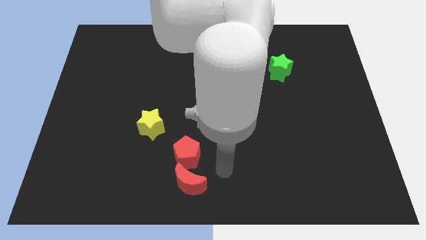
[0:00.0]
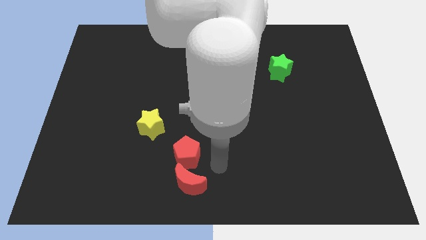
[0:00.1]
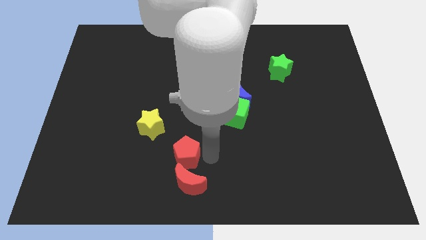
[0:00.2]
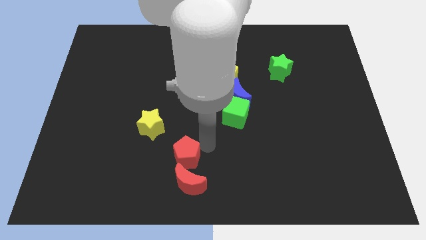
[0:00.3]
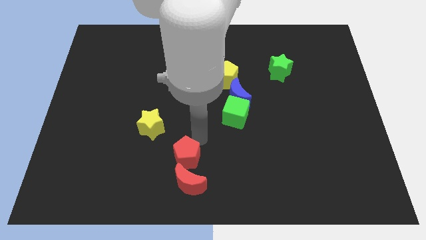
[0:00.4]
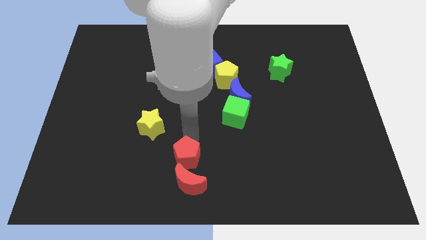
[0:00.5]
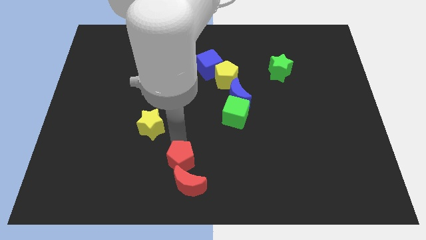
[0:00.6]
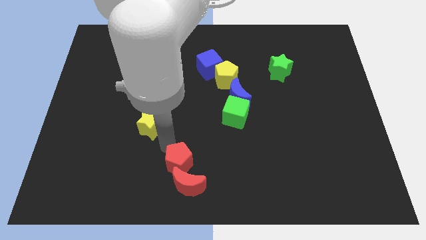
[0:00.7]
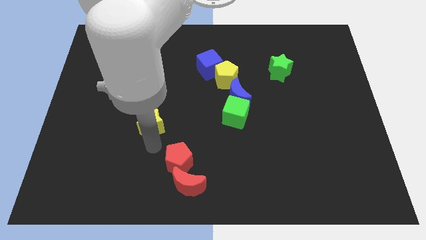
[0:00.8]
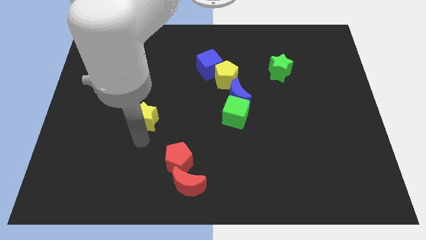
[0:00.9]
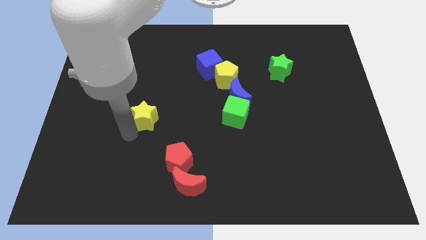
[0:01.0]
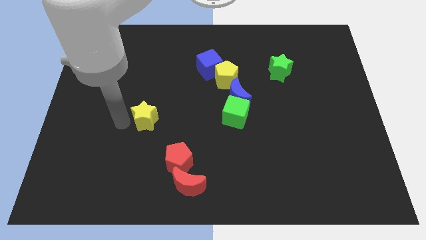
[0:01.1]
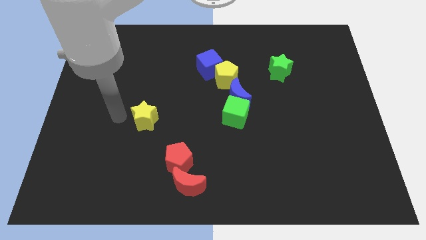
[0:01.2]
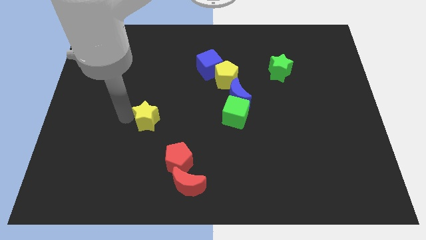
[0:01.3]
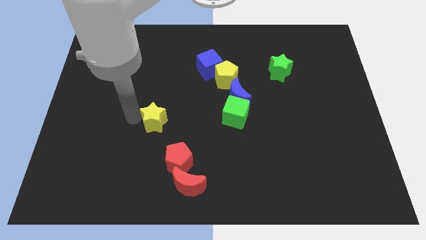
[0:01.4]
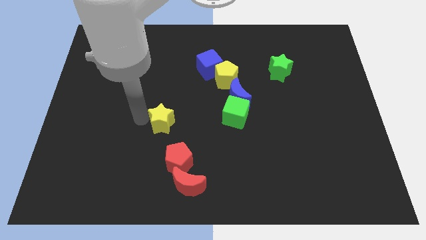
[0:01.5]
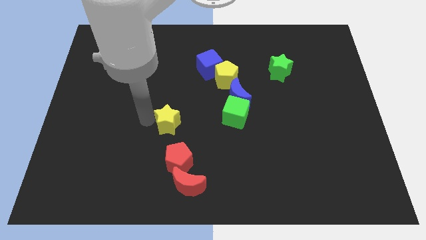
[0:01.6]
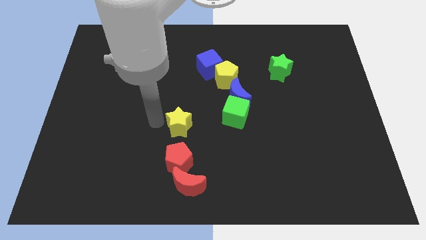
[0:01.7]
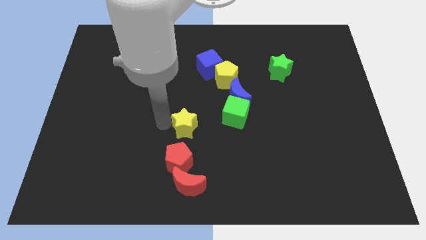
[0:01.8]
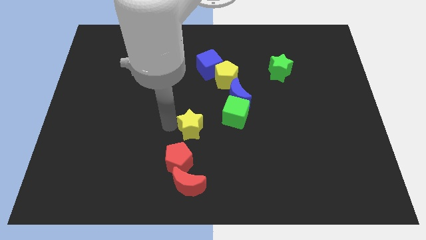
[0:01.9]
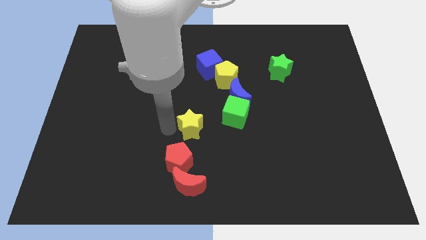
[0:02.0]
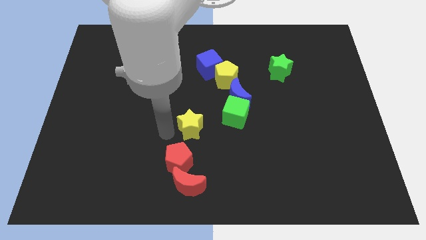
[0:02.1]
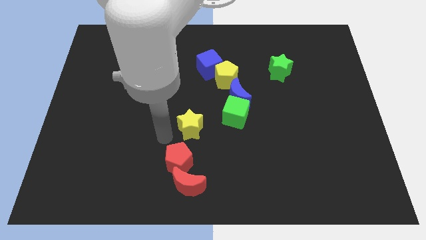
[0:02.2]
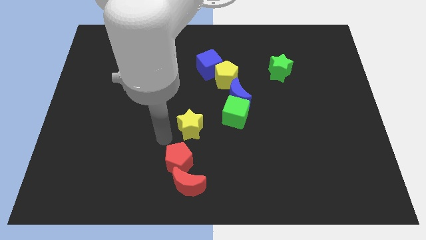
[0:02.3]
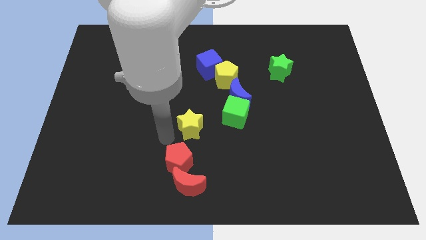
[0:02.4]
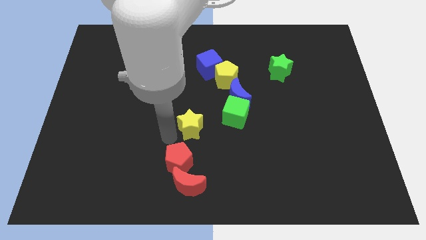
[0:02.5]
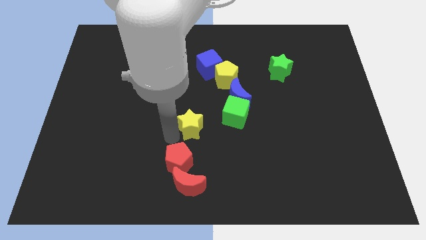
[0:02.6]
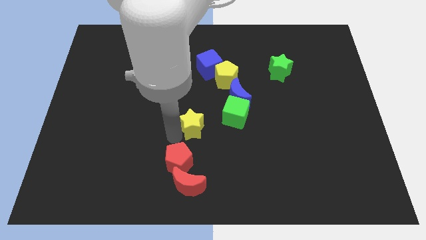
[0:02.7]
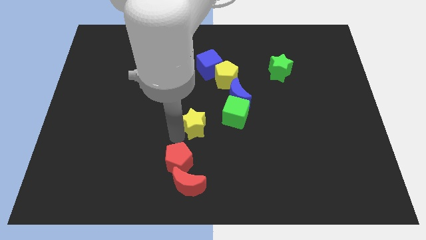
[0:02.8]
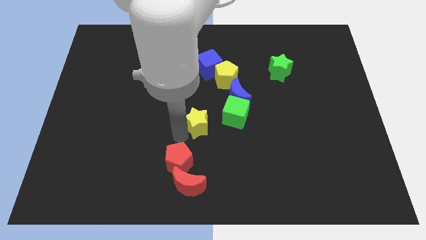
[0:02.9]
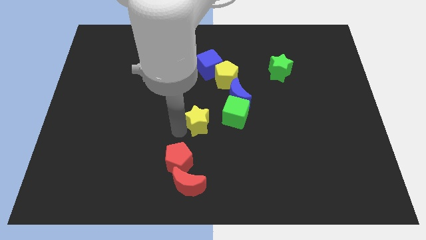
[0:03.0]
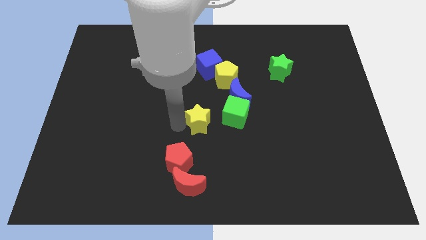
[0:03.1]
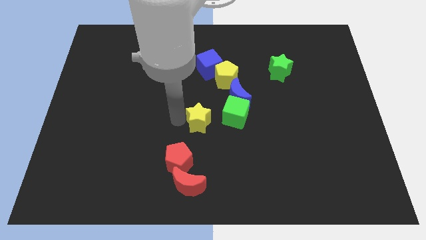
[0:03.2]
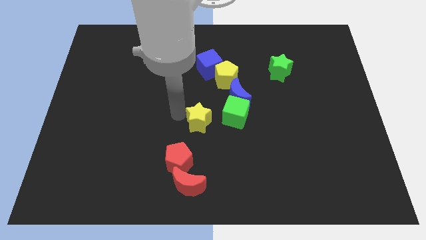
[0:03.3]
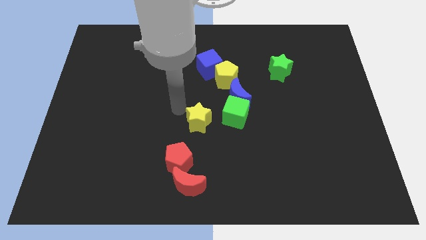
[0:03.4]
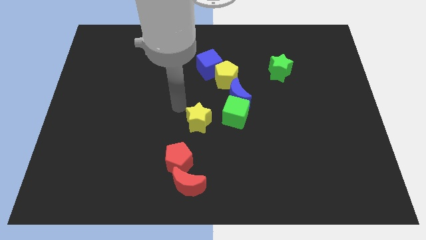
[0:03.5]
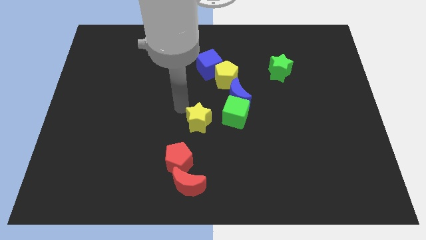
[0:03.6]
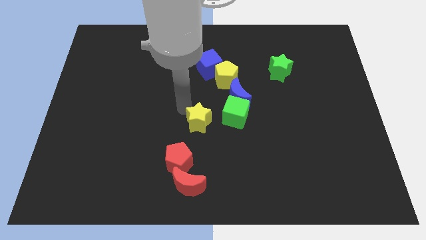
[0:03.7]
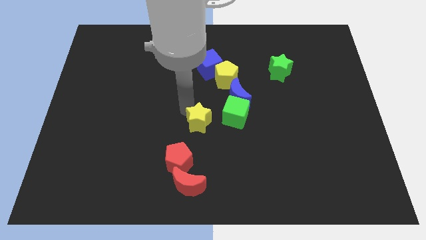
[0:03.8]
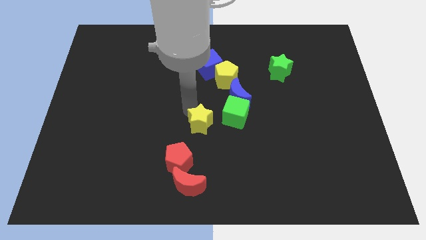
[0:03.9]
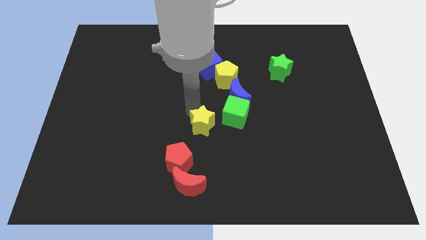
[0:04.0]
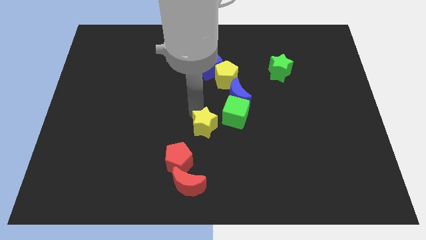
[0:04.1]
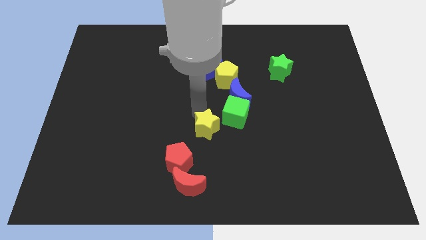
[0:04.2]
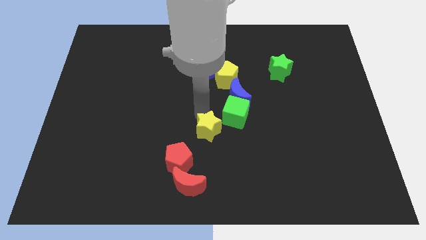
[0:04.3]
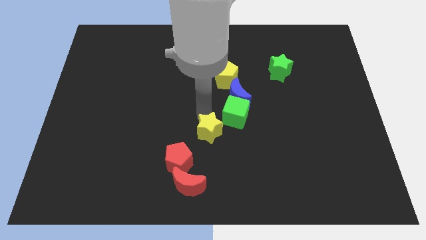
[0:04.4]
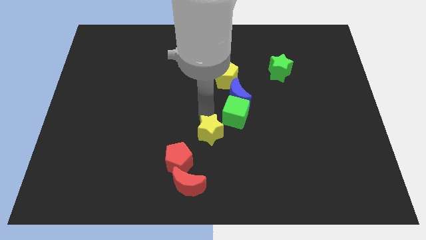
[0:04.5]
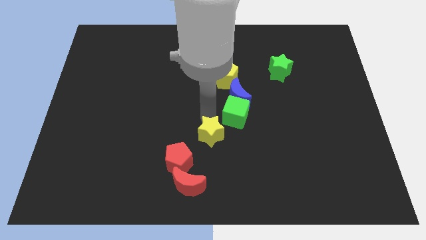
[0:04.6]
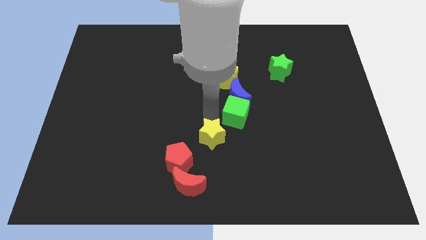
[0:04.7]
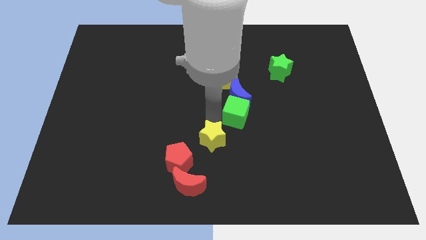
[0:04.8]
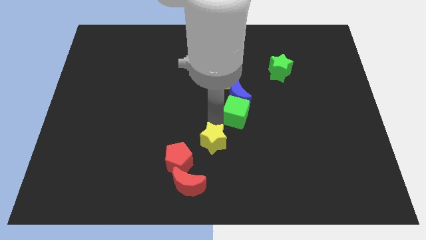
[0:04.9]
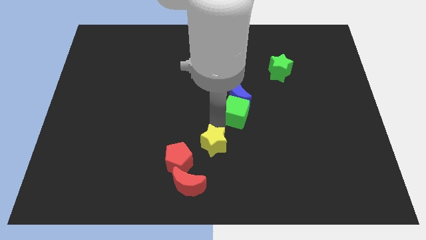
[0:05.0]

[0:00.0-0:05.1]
push the yellow star just right of the red pentagon

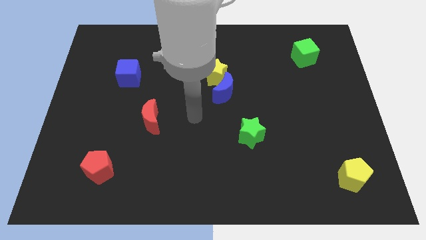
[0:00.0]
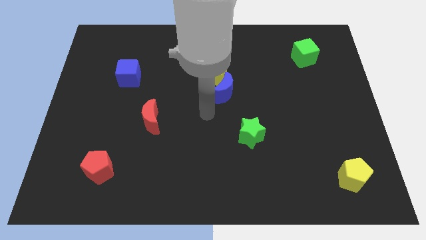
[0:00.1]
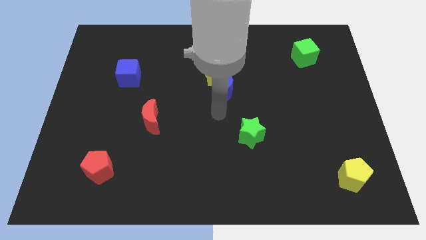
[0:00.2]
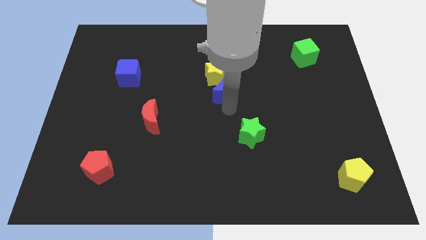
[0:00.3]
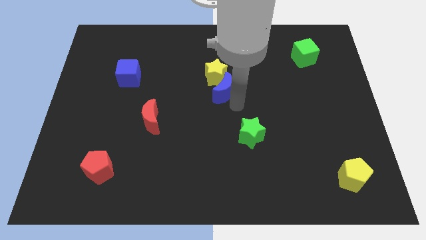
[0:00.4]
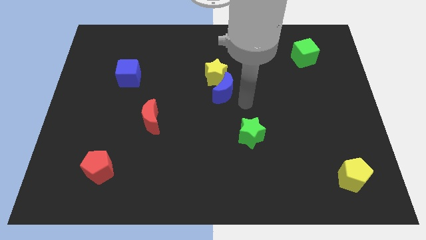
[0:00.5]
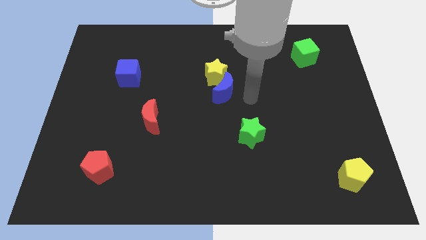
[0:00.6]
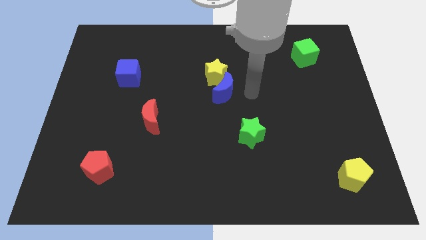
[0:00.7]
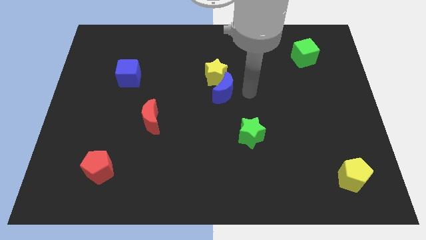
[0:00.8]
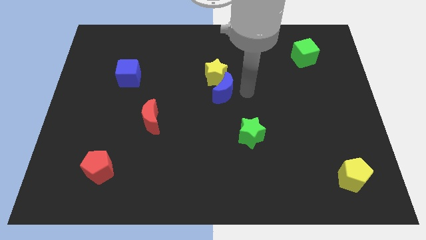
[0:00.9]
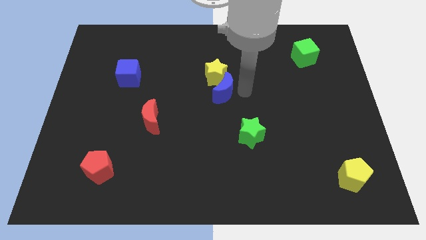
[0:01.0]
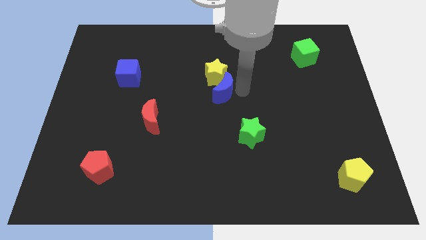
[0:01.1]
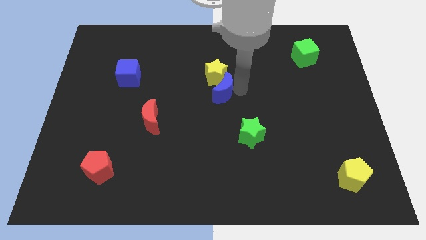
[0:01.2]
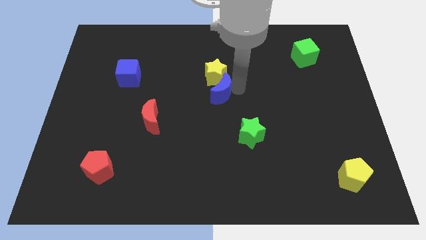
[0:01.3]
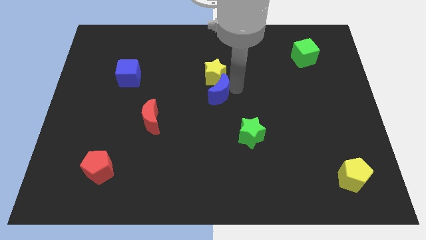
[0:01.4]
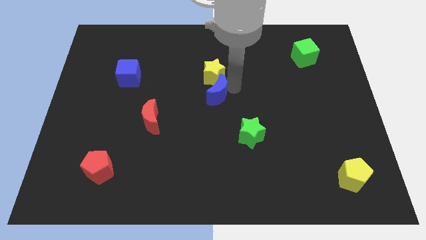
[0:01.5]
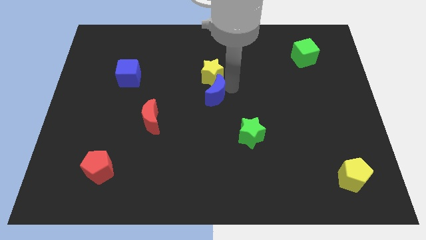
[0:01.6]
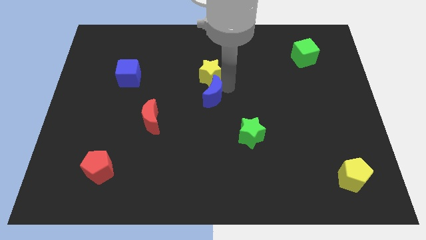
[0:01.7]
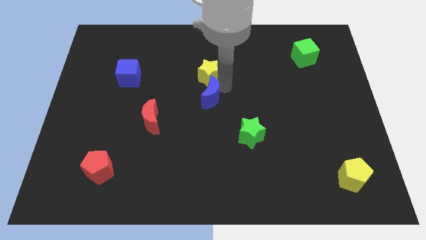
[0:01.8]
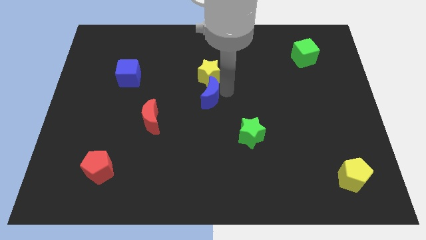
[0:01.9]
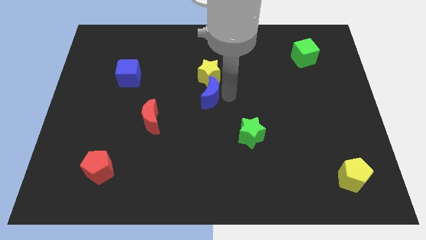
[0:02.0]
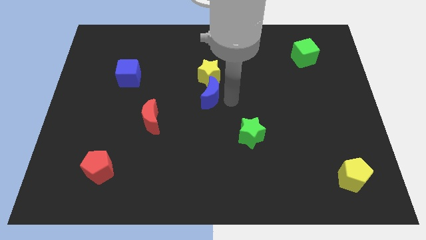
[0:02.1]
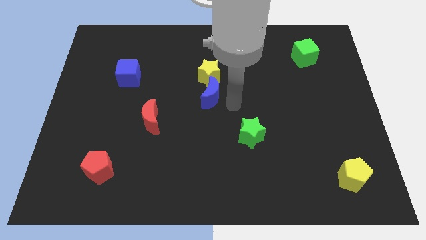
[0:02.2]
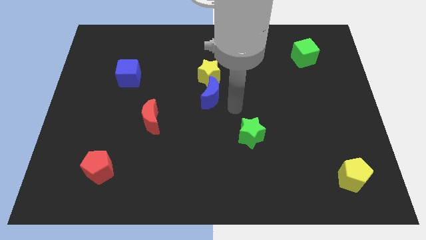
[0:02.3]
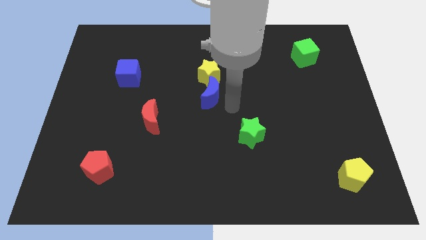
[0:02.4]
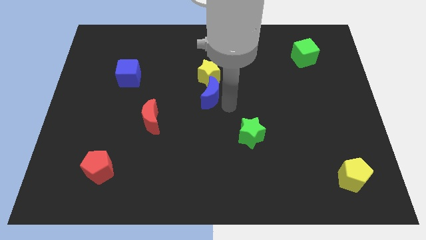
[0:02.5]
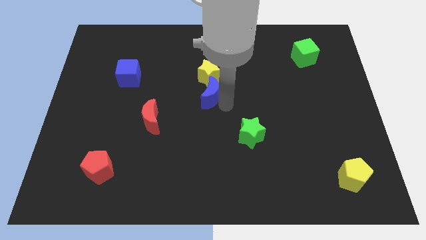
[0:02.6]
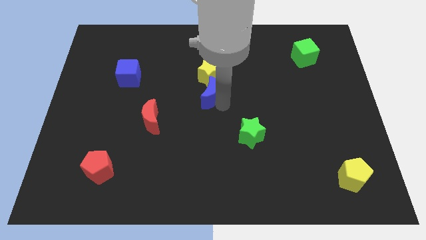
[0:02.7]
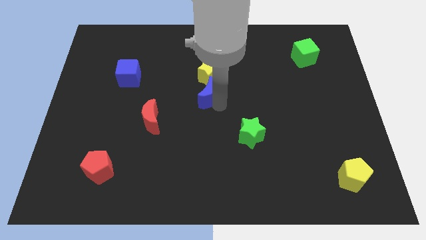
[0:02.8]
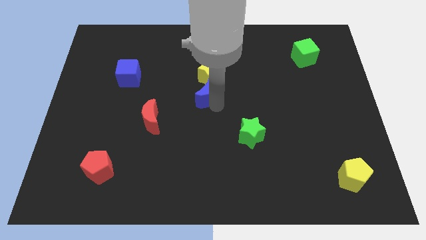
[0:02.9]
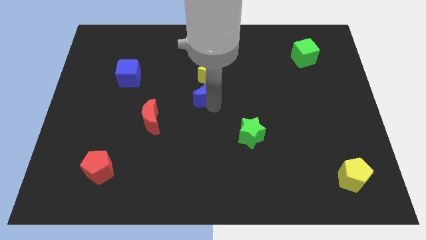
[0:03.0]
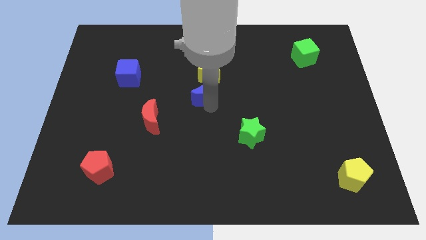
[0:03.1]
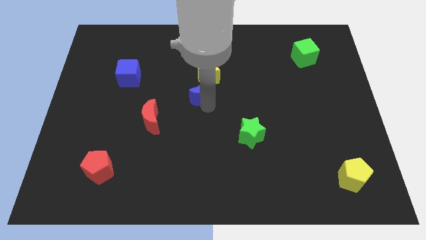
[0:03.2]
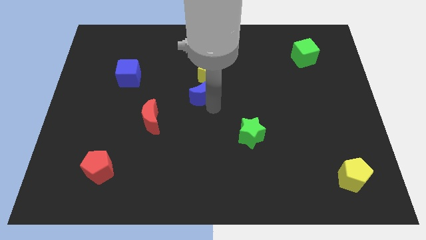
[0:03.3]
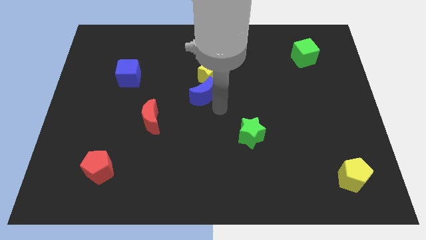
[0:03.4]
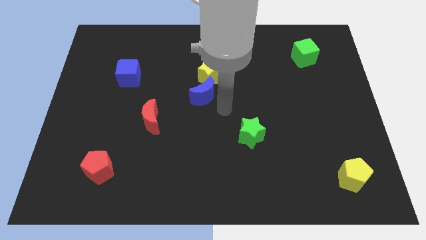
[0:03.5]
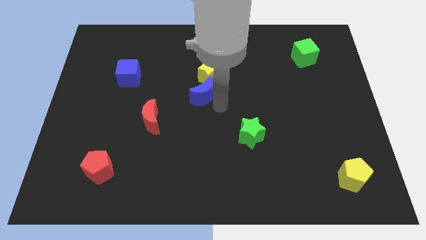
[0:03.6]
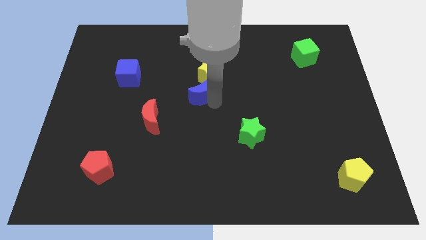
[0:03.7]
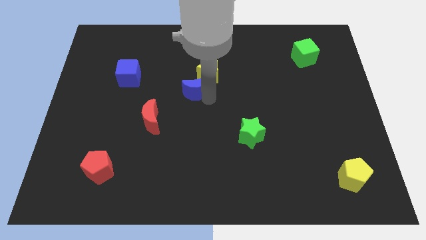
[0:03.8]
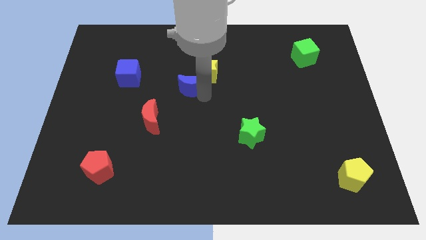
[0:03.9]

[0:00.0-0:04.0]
slide the blue moon to the left of the yellow star
